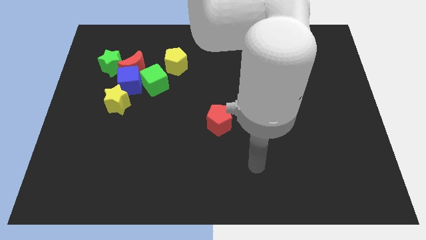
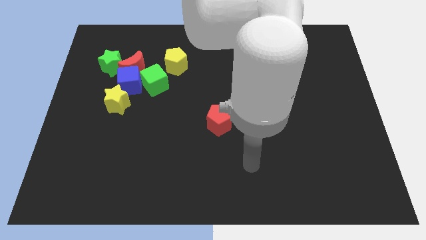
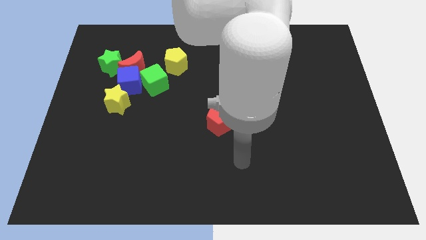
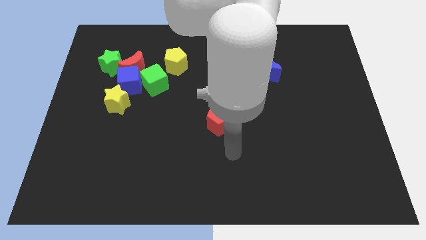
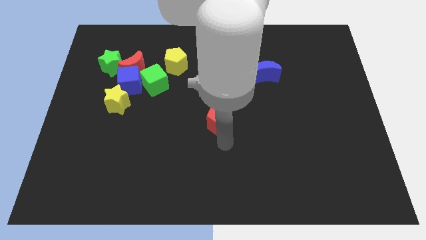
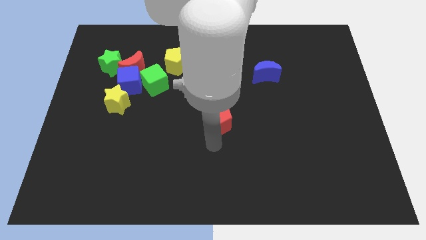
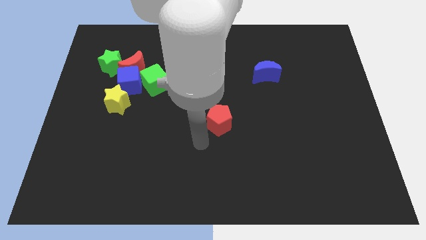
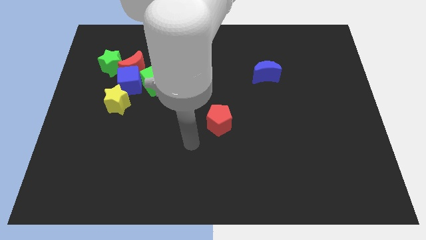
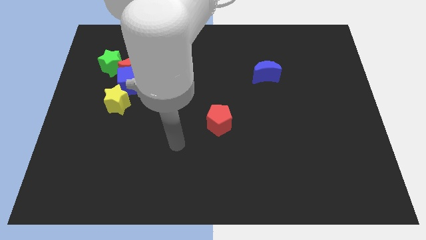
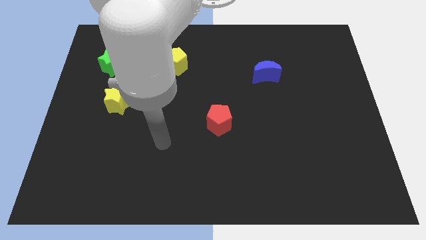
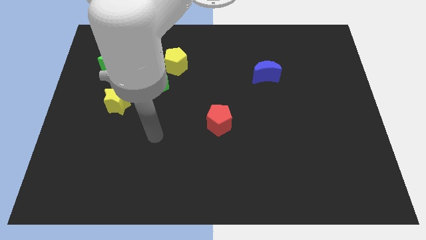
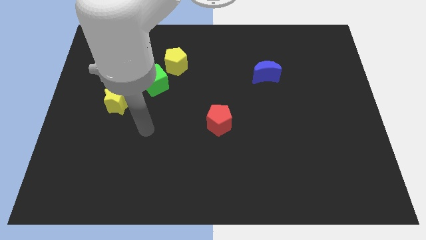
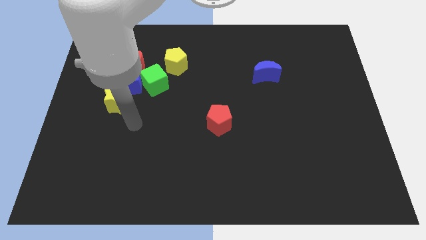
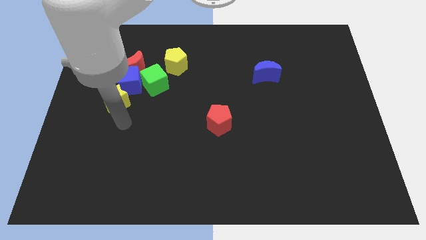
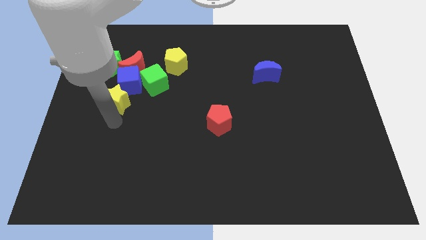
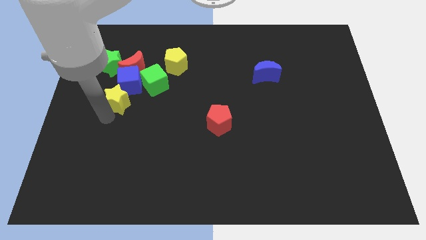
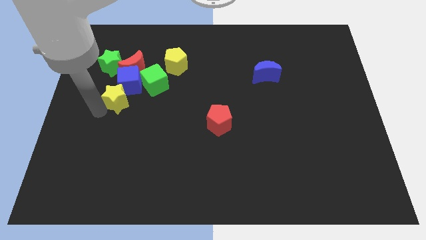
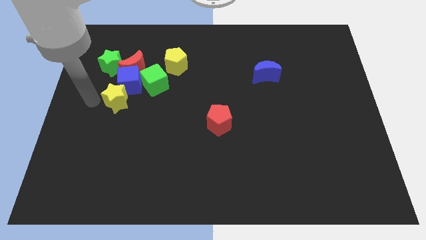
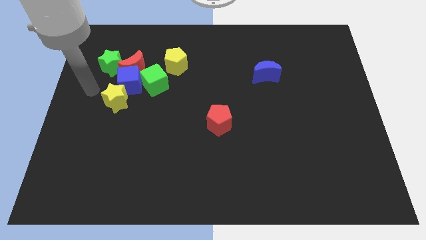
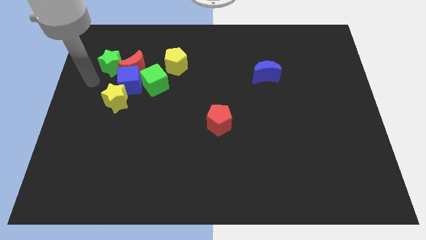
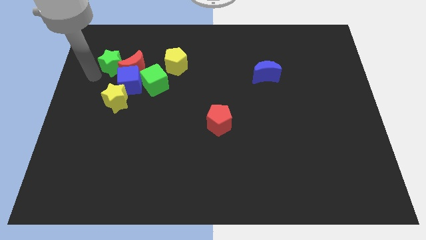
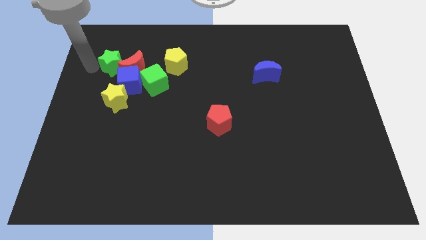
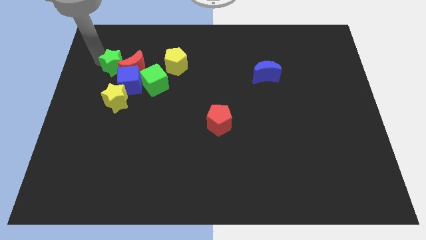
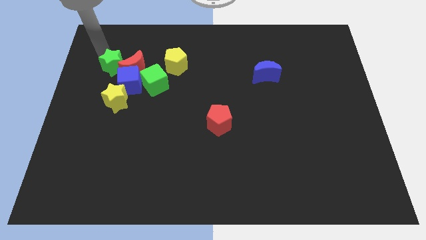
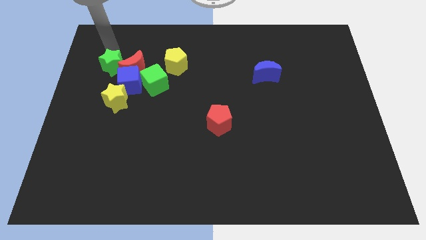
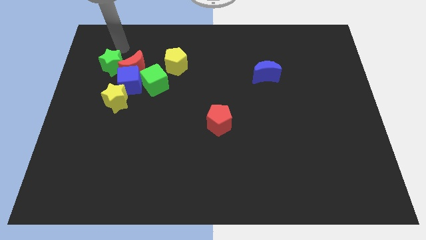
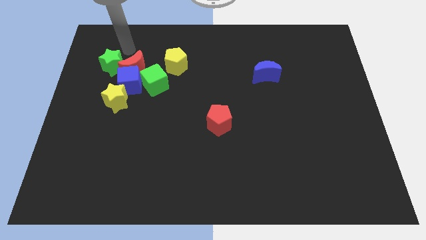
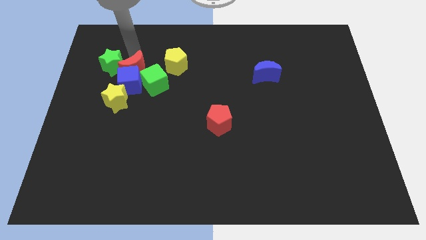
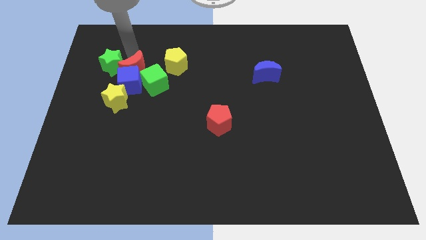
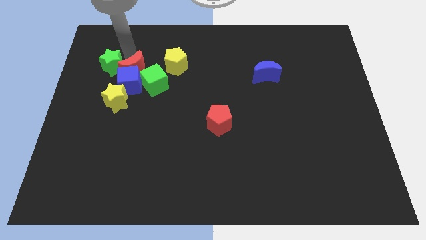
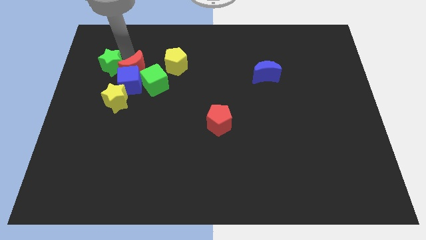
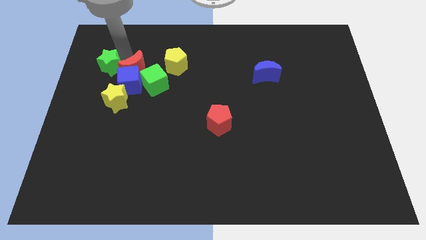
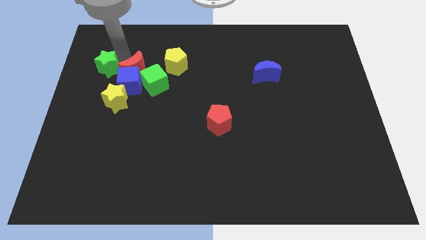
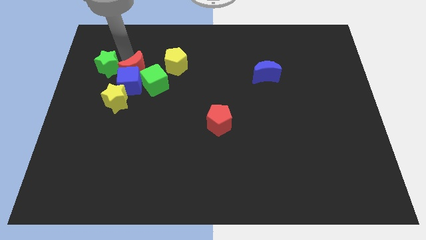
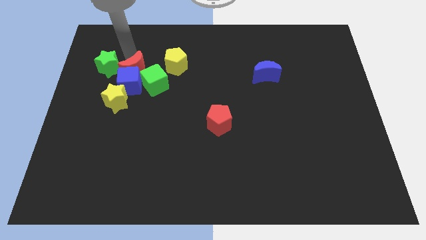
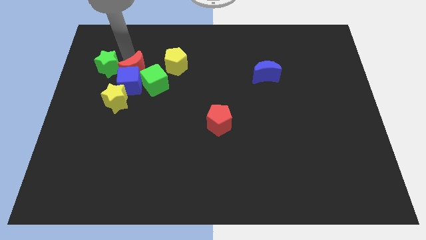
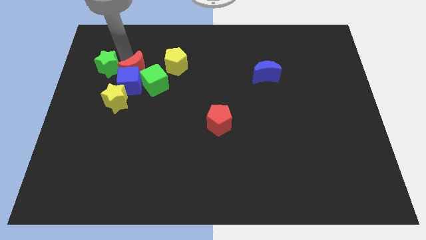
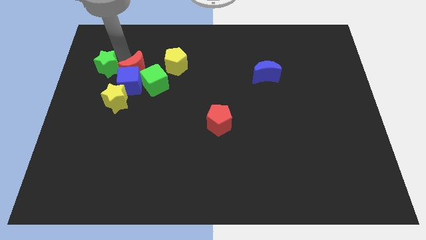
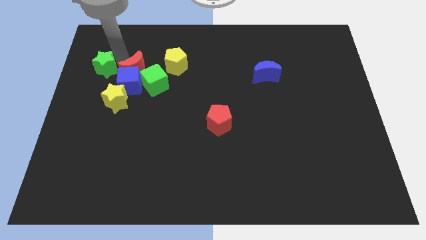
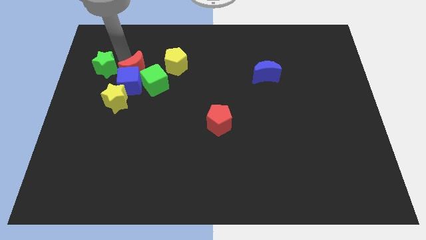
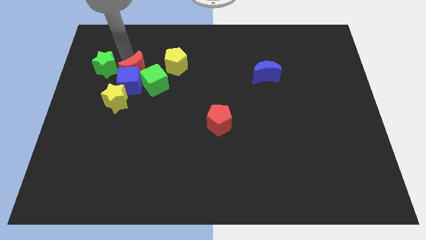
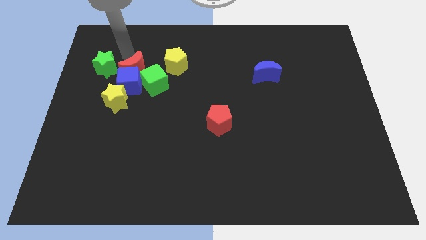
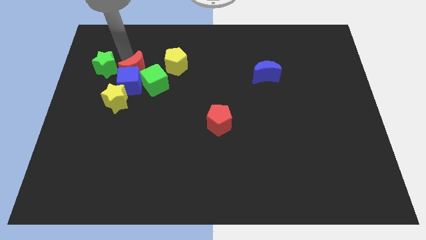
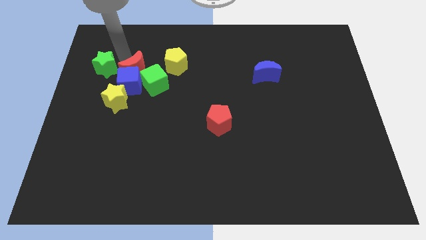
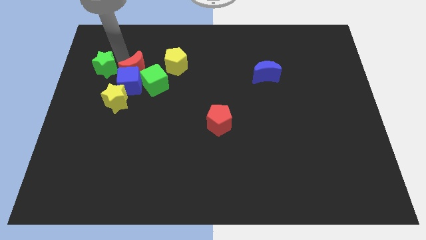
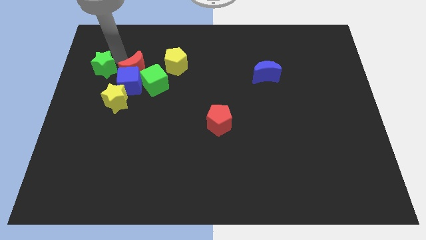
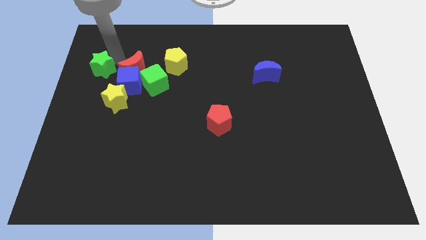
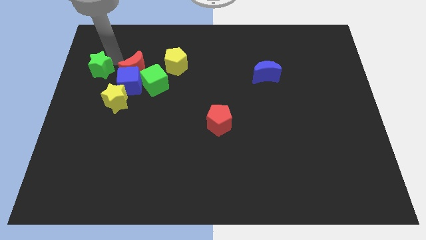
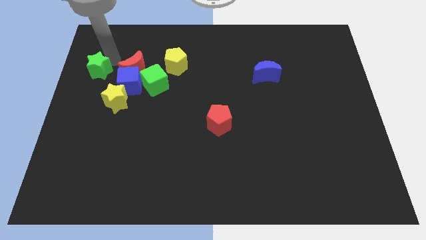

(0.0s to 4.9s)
put the green star to the center left

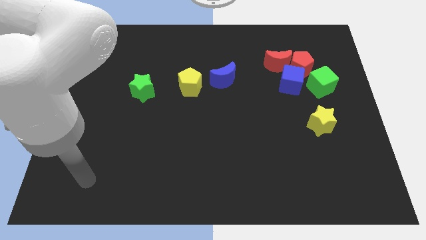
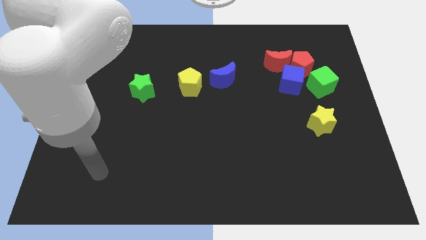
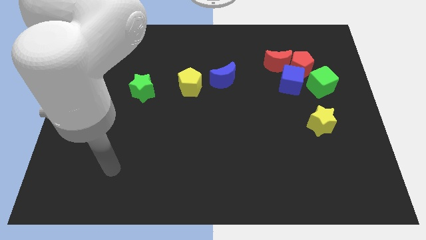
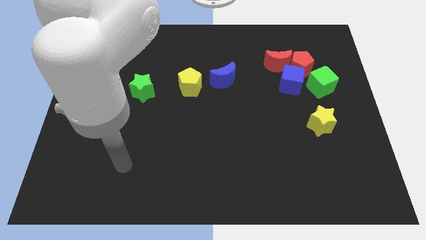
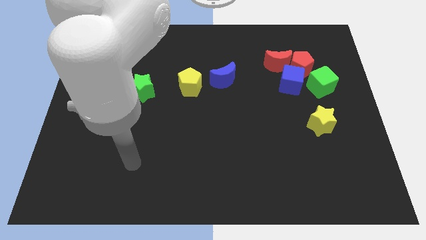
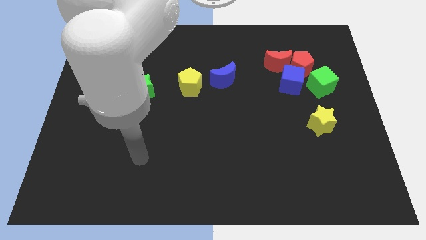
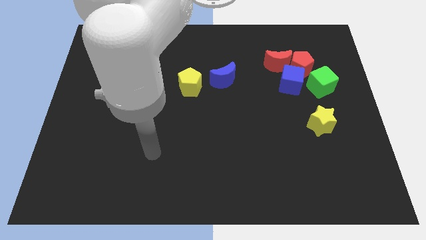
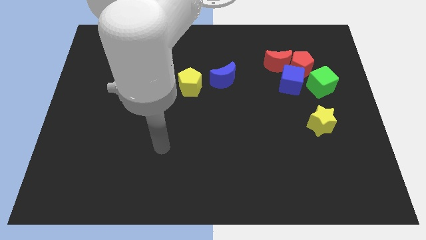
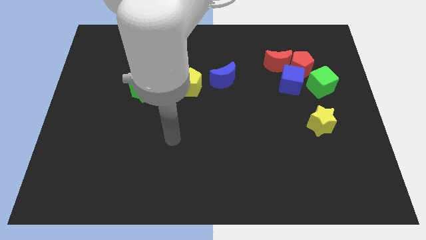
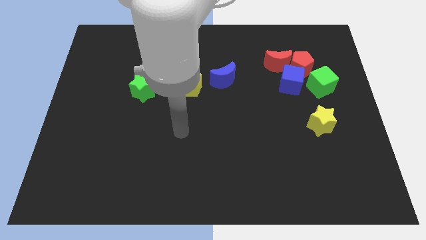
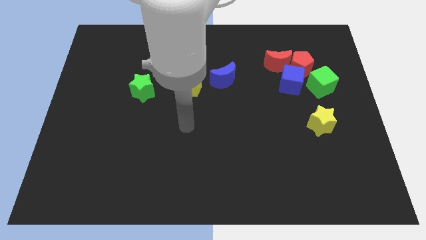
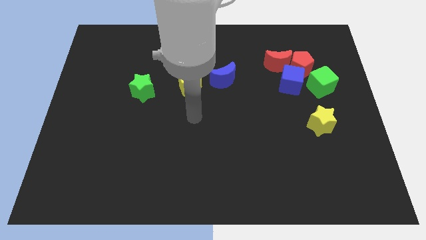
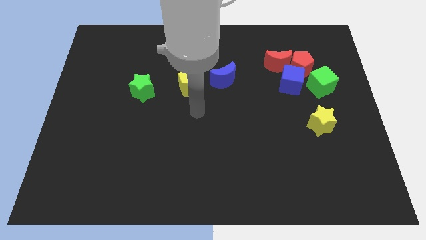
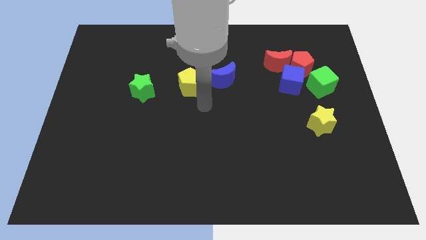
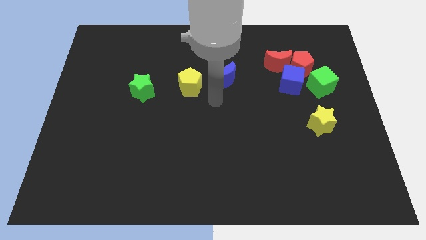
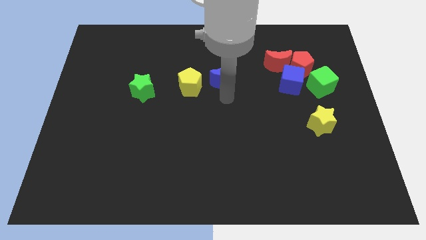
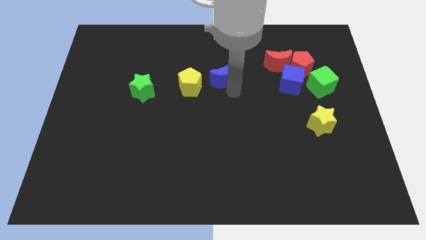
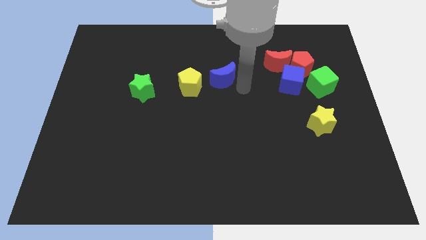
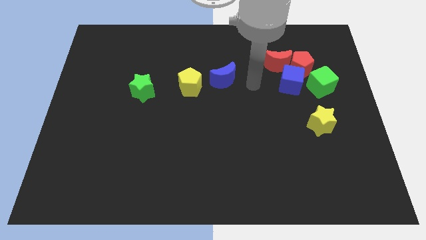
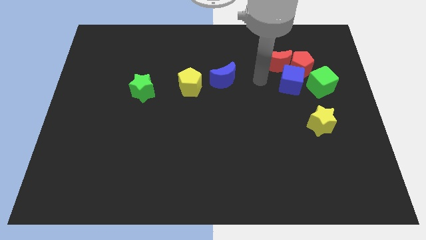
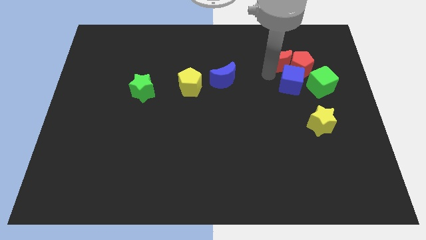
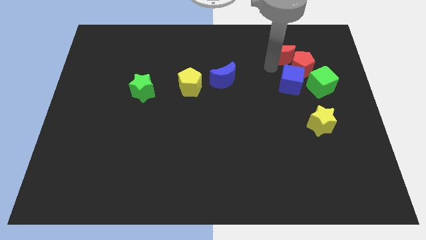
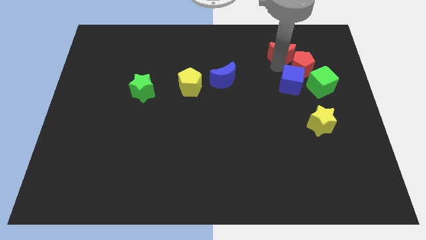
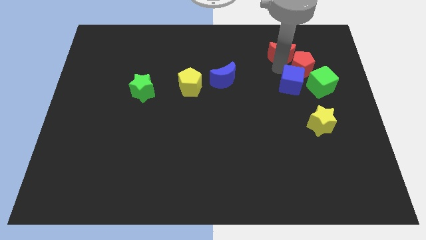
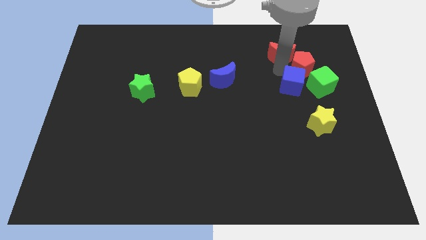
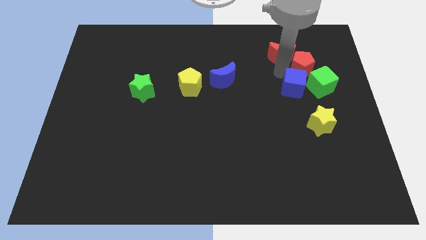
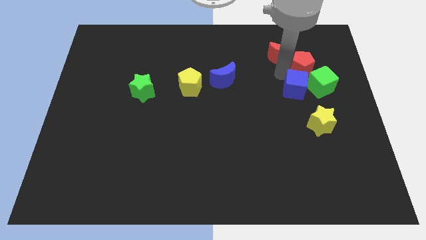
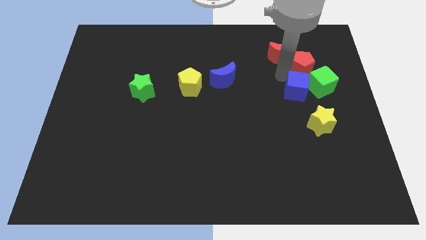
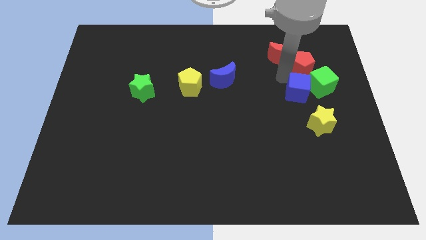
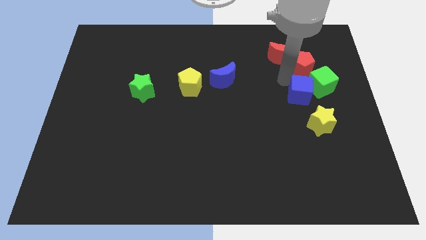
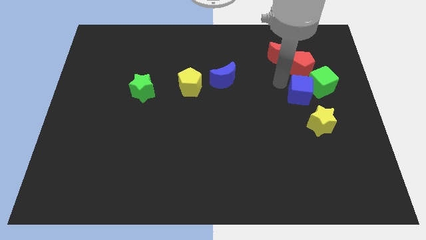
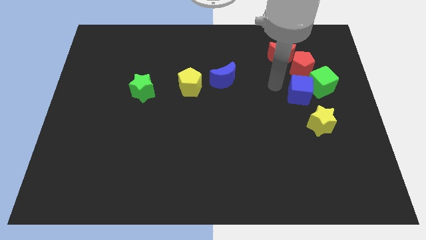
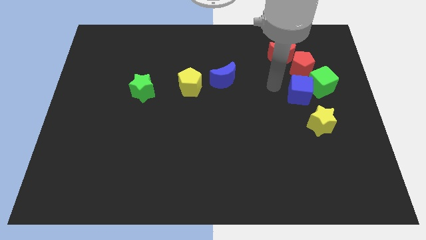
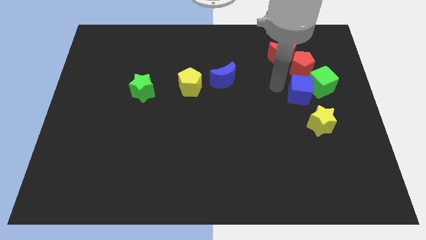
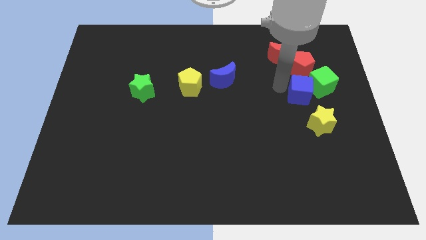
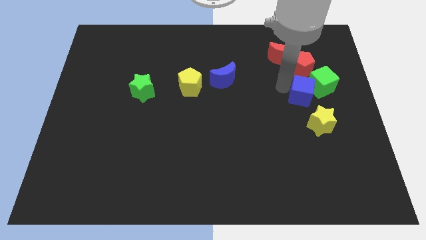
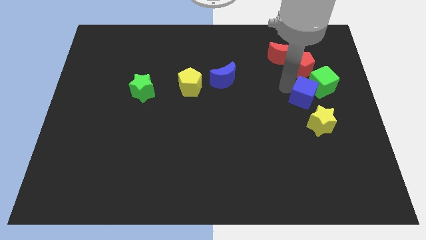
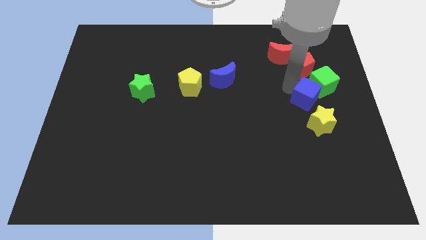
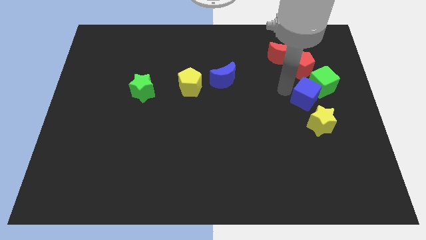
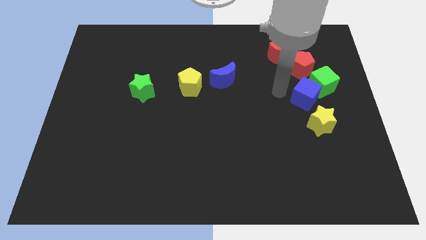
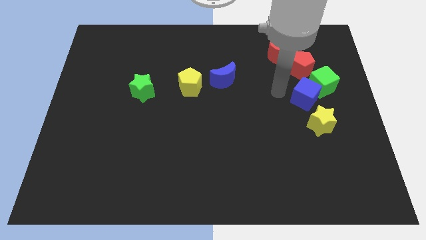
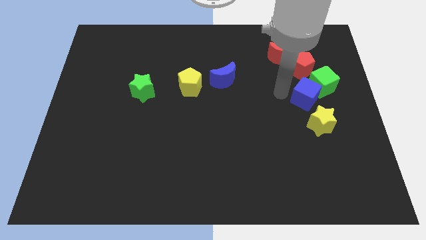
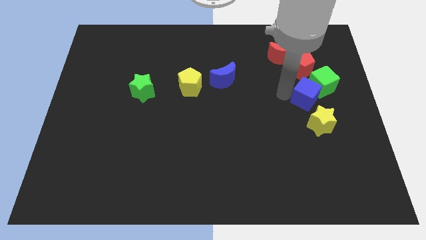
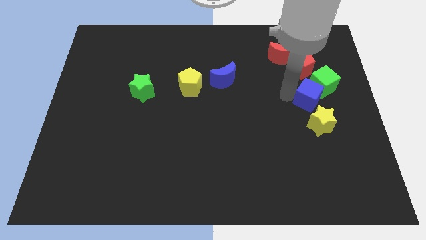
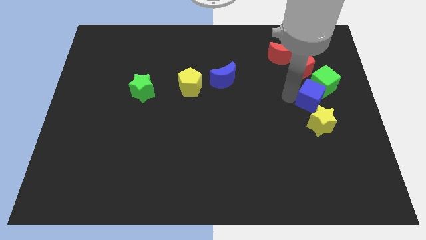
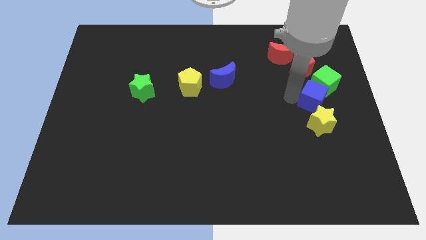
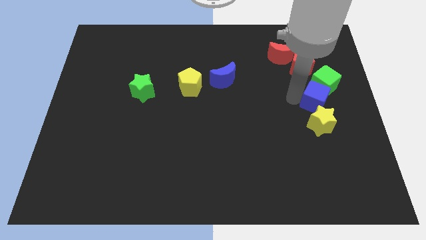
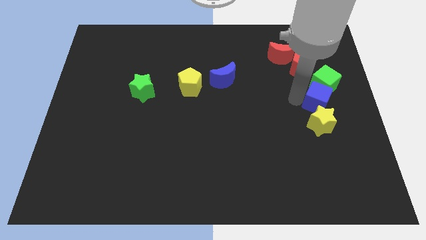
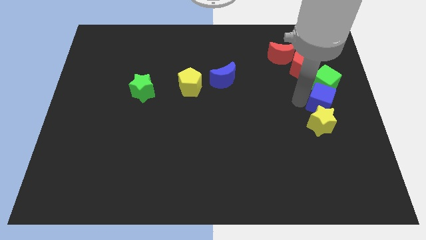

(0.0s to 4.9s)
slide the blue cube to the right side of the board
